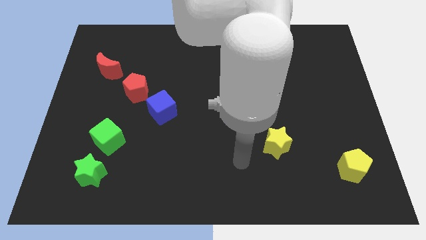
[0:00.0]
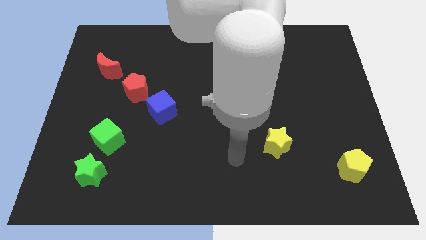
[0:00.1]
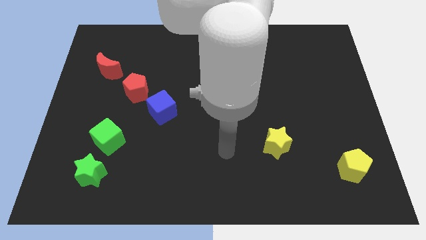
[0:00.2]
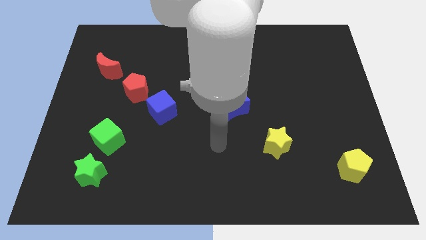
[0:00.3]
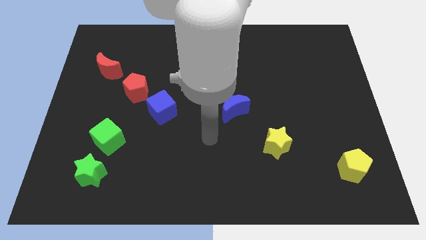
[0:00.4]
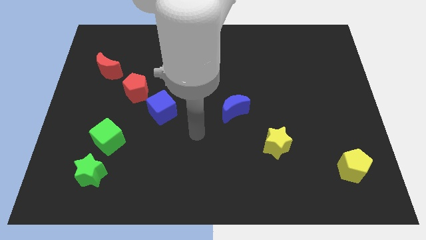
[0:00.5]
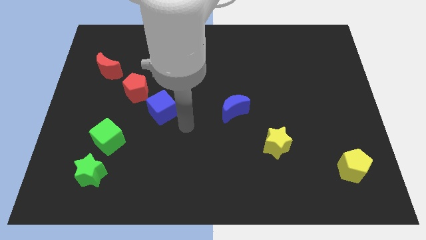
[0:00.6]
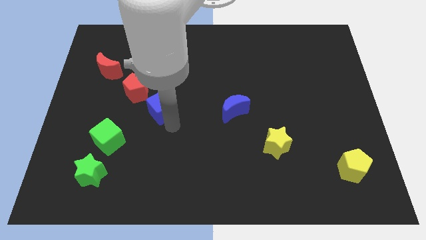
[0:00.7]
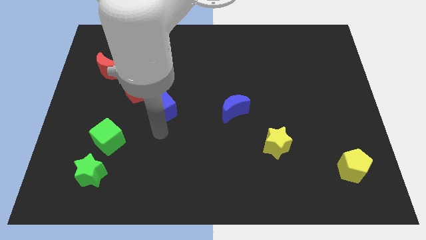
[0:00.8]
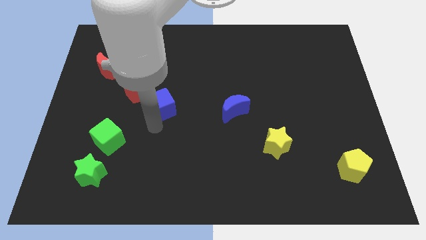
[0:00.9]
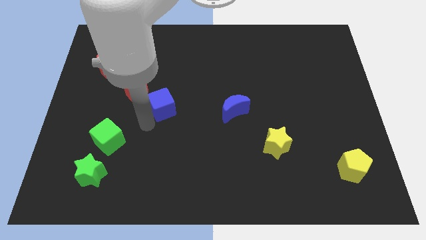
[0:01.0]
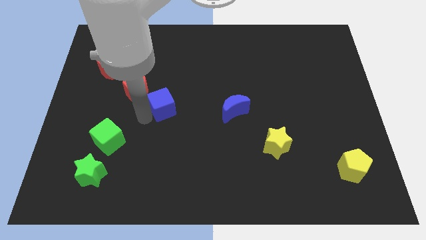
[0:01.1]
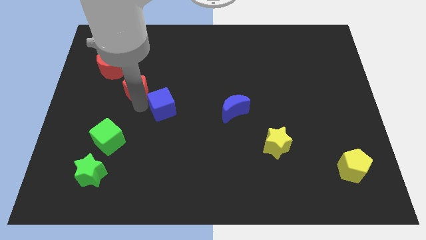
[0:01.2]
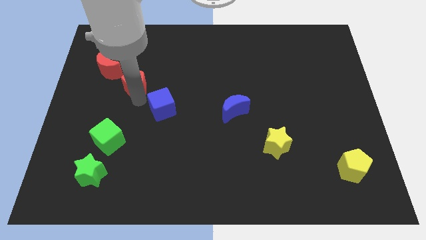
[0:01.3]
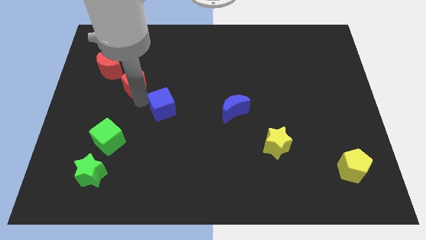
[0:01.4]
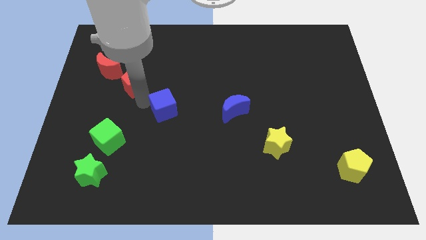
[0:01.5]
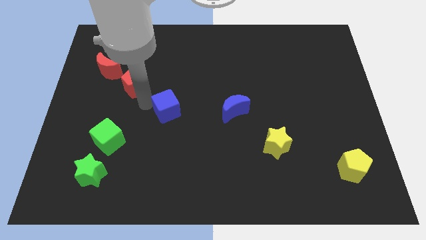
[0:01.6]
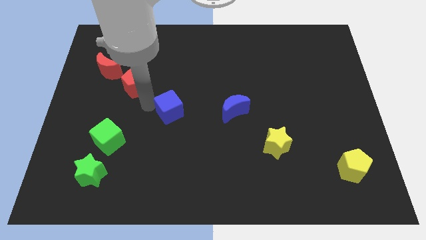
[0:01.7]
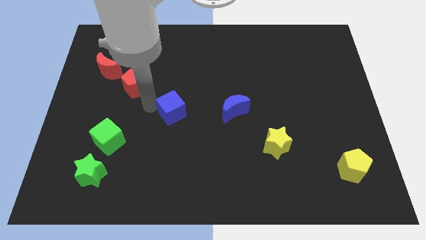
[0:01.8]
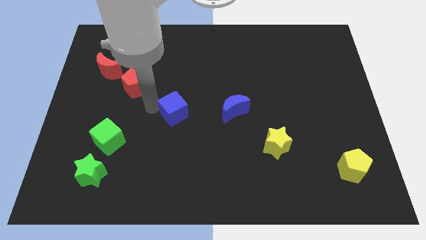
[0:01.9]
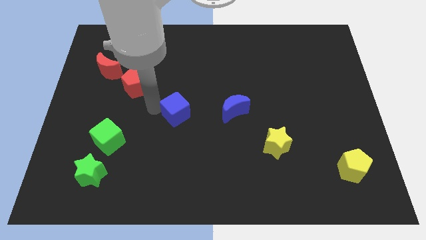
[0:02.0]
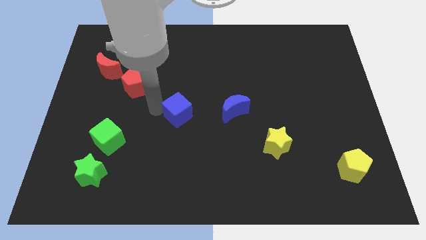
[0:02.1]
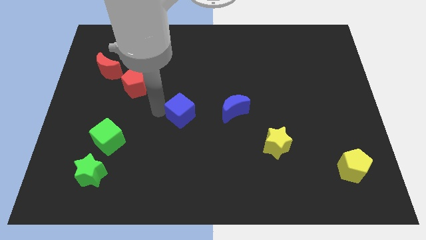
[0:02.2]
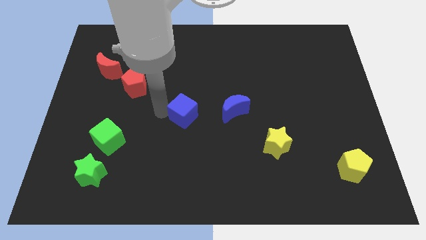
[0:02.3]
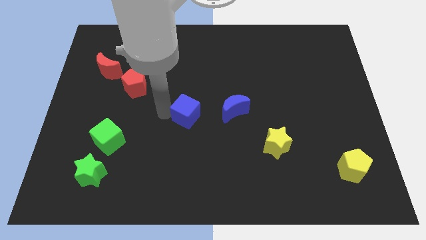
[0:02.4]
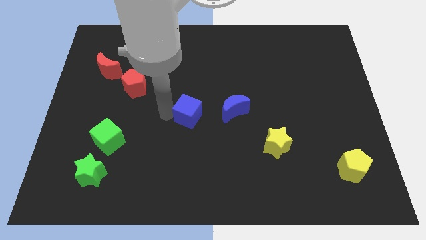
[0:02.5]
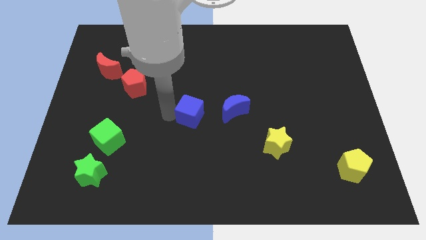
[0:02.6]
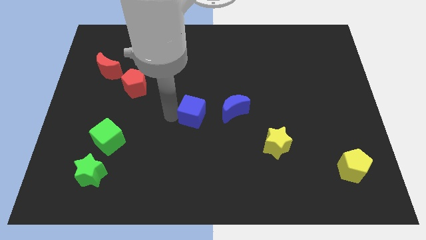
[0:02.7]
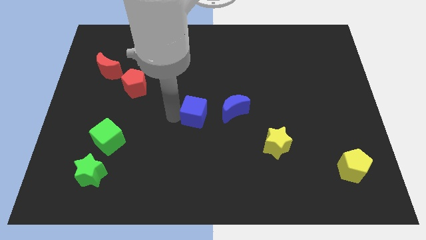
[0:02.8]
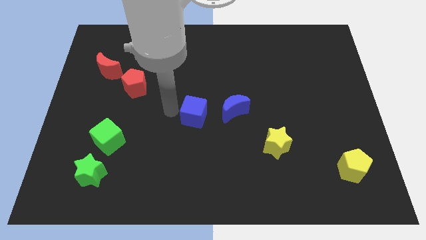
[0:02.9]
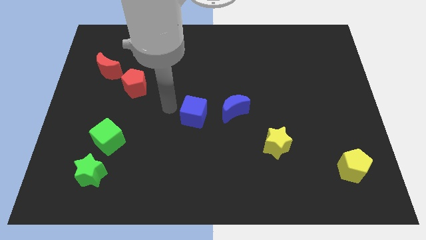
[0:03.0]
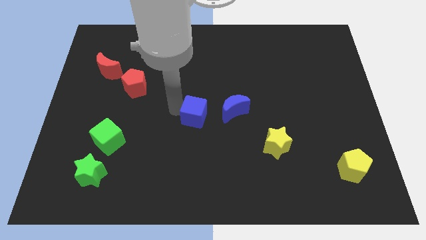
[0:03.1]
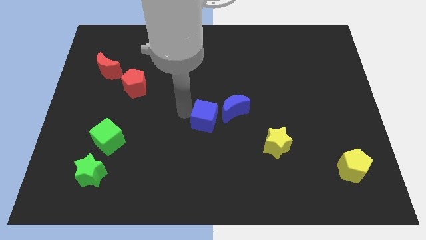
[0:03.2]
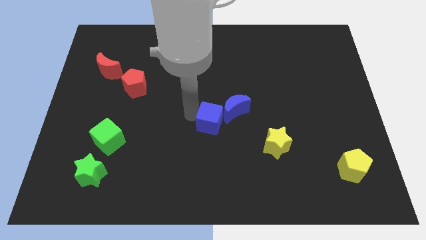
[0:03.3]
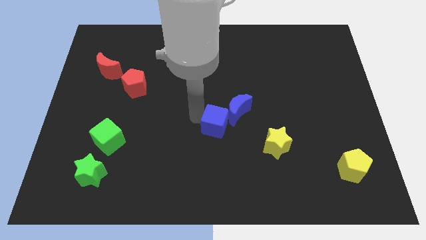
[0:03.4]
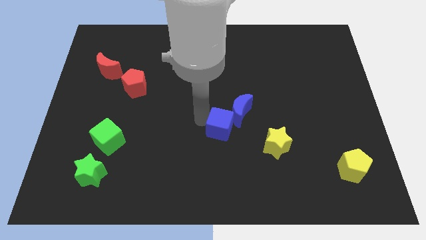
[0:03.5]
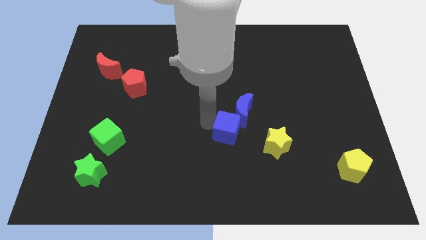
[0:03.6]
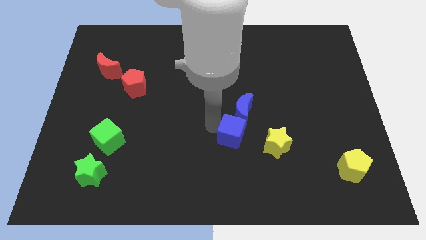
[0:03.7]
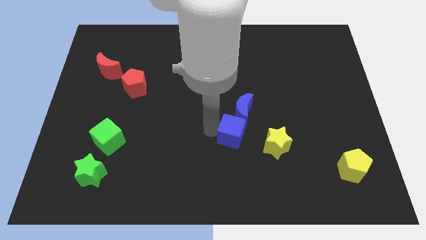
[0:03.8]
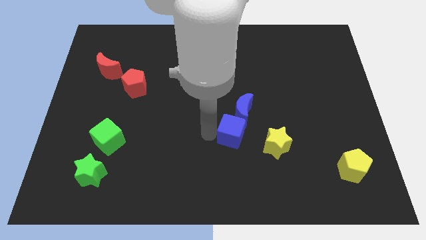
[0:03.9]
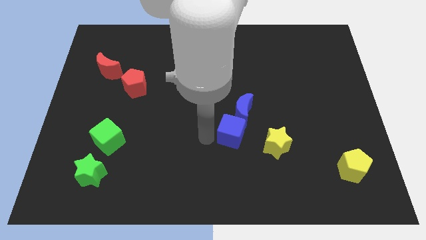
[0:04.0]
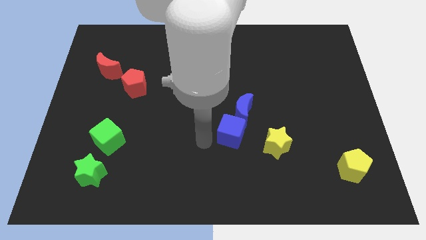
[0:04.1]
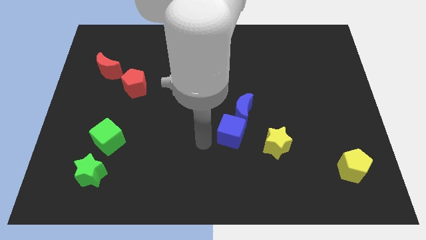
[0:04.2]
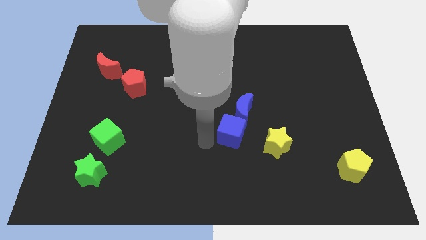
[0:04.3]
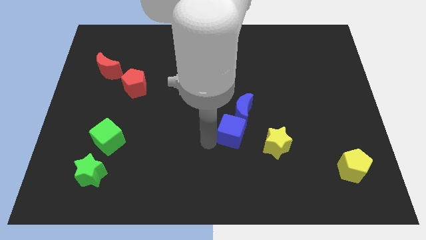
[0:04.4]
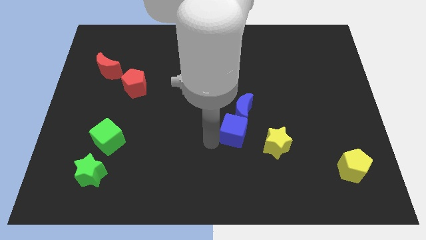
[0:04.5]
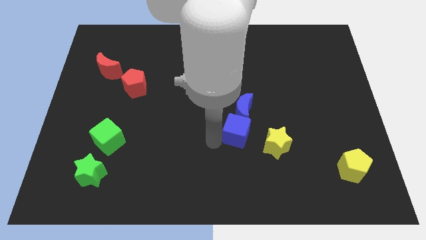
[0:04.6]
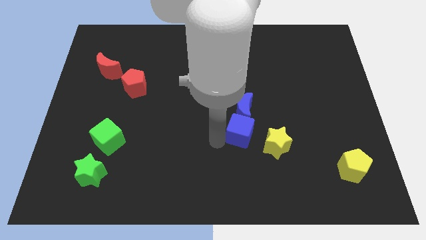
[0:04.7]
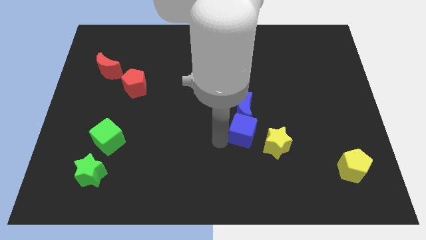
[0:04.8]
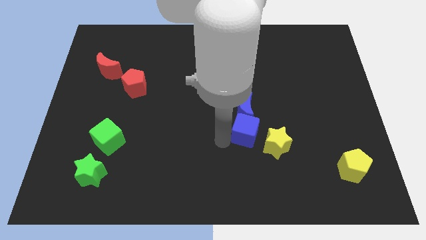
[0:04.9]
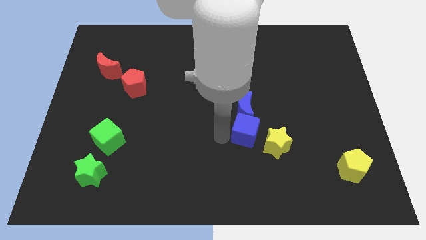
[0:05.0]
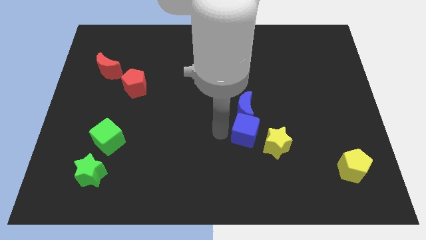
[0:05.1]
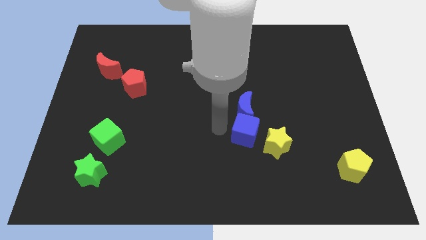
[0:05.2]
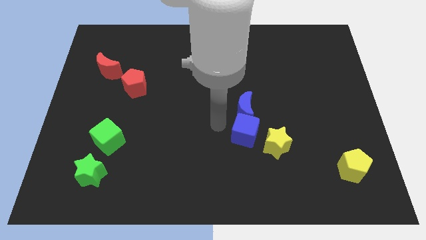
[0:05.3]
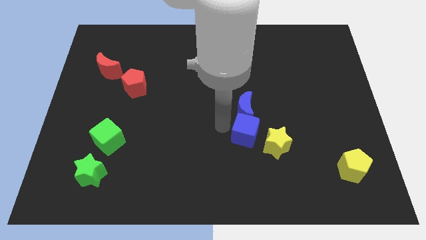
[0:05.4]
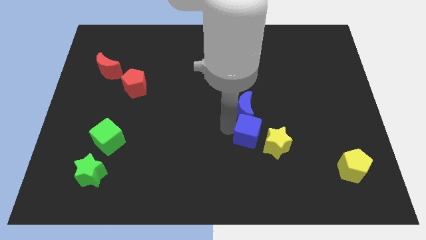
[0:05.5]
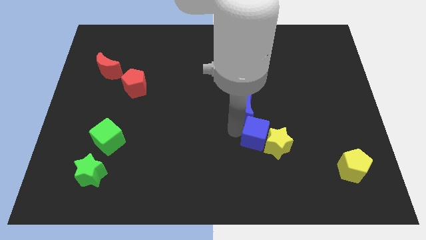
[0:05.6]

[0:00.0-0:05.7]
push the blue cube to the yellow star
